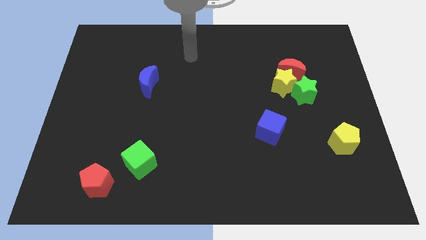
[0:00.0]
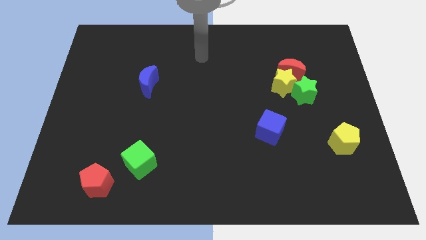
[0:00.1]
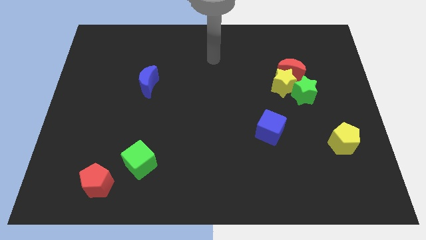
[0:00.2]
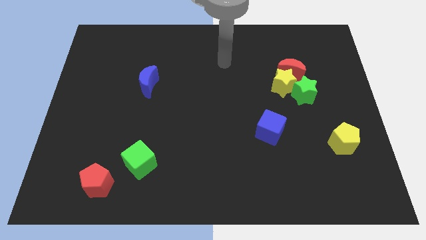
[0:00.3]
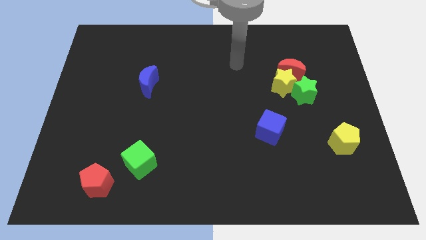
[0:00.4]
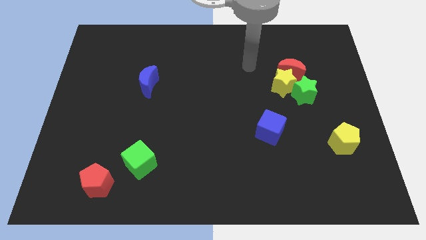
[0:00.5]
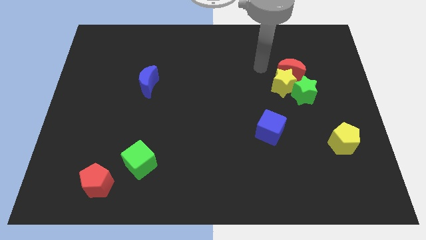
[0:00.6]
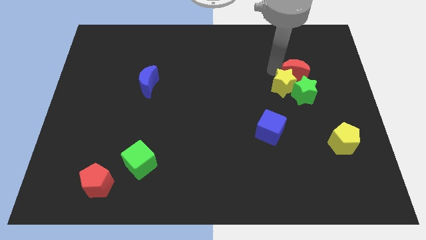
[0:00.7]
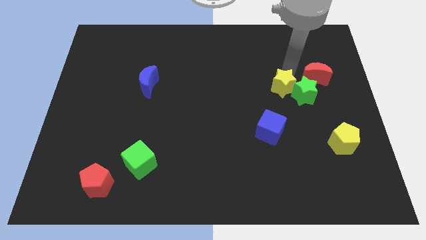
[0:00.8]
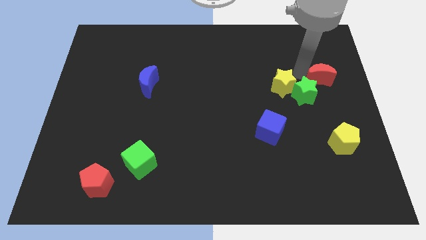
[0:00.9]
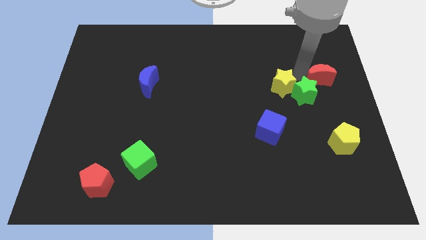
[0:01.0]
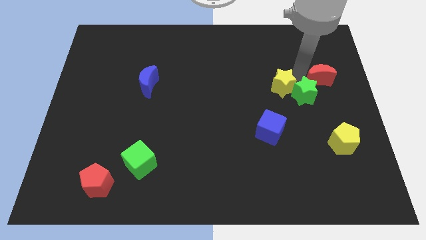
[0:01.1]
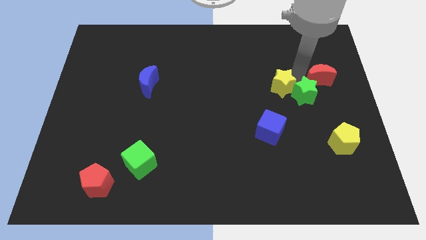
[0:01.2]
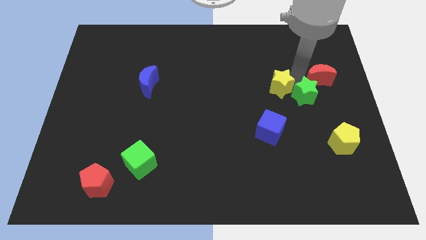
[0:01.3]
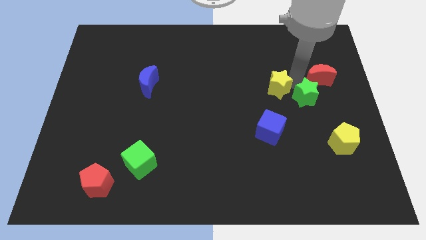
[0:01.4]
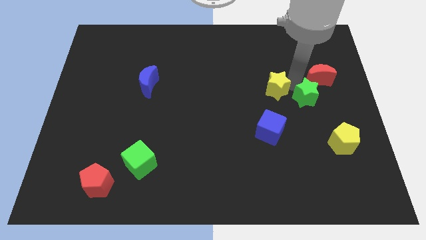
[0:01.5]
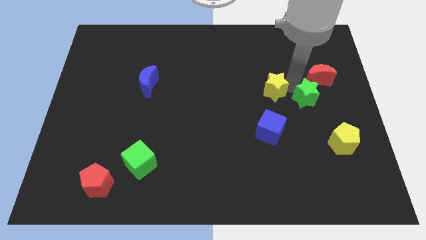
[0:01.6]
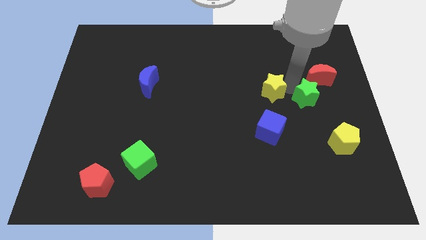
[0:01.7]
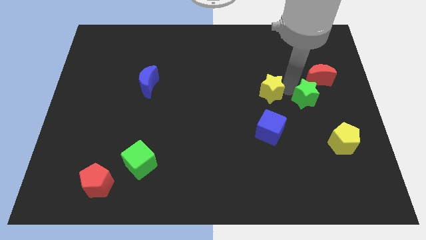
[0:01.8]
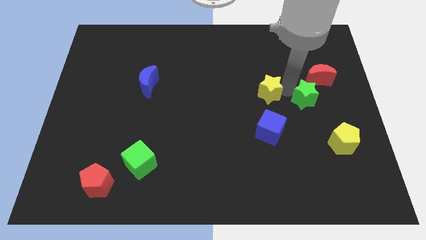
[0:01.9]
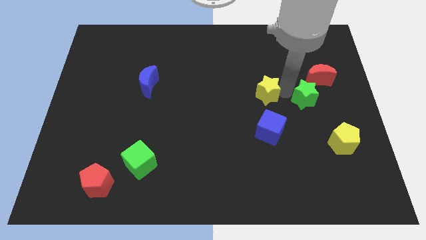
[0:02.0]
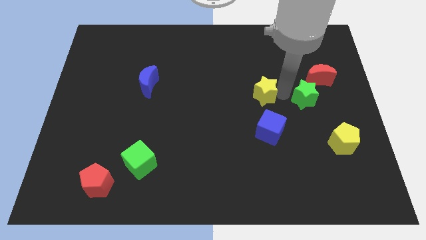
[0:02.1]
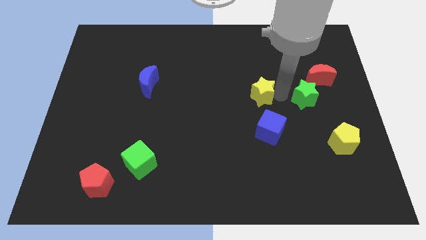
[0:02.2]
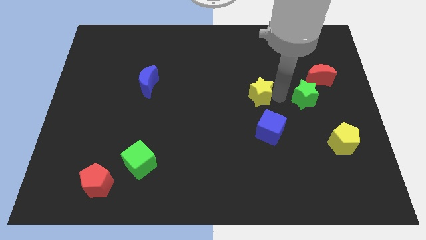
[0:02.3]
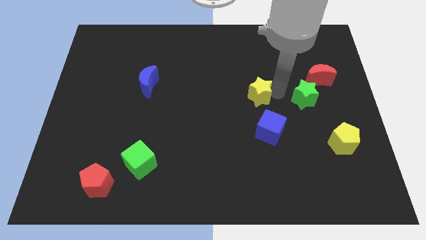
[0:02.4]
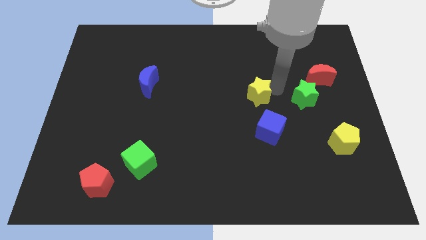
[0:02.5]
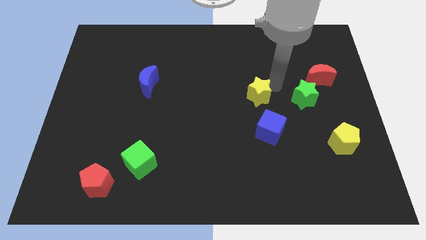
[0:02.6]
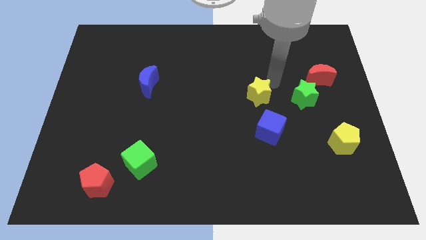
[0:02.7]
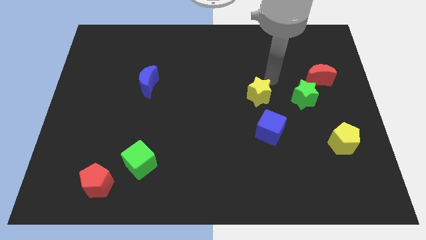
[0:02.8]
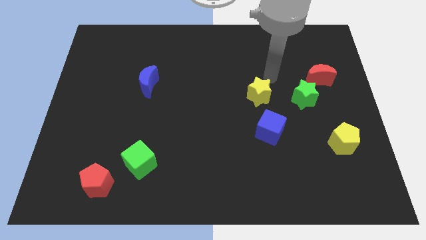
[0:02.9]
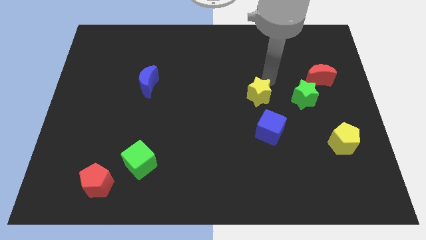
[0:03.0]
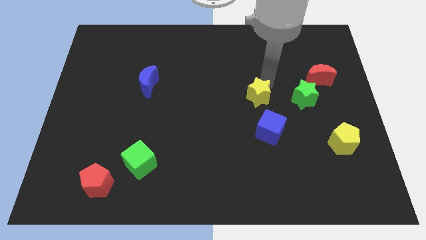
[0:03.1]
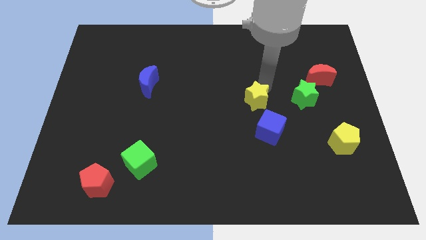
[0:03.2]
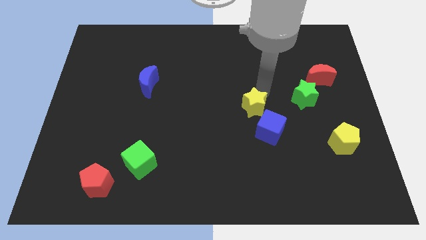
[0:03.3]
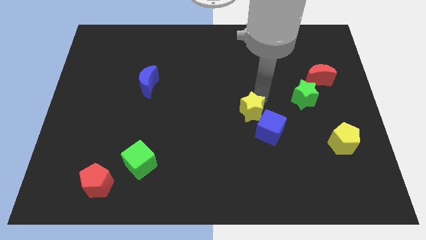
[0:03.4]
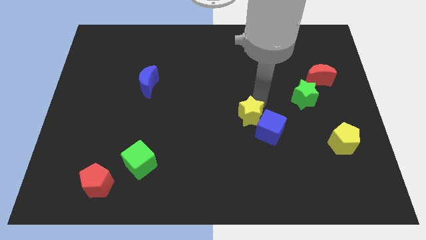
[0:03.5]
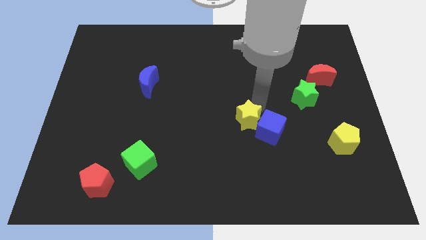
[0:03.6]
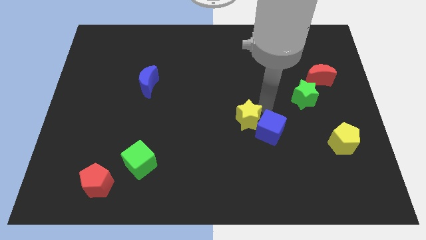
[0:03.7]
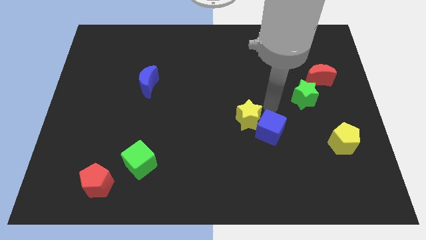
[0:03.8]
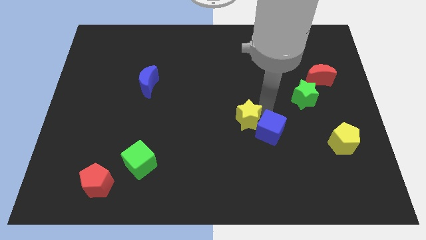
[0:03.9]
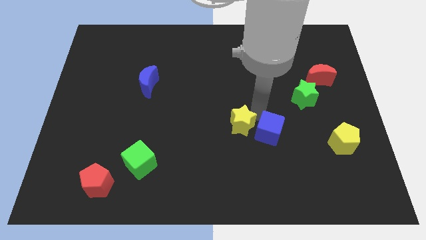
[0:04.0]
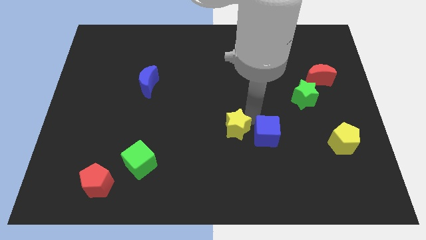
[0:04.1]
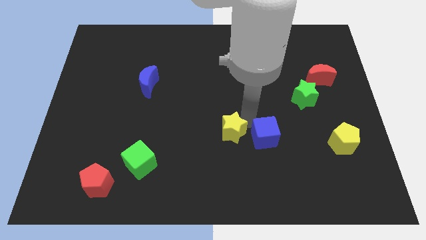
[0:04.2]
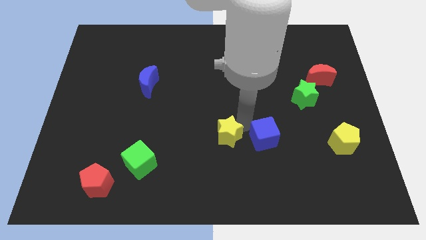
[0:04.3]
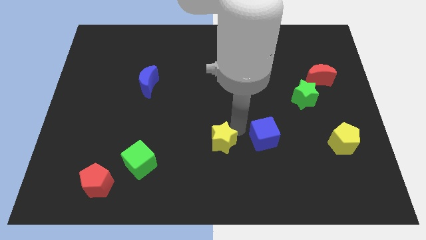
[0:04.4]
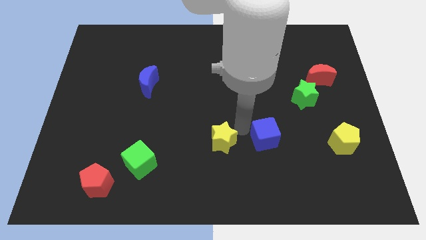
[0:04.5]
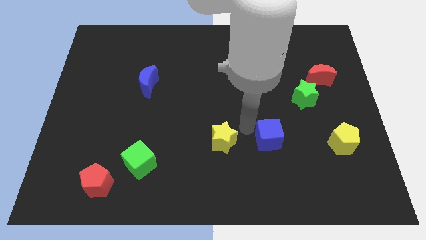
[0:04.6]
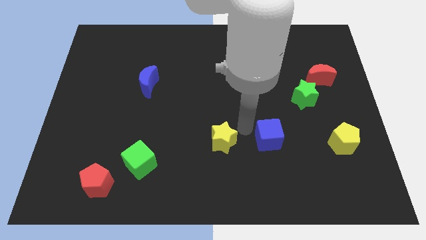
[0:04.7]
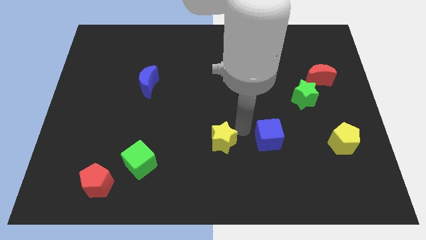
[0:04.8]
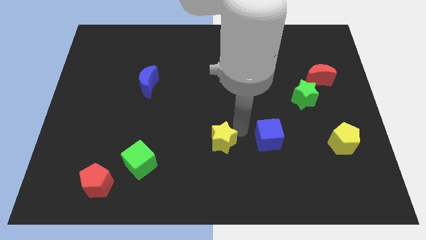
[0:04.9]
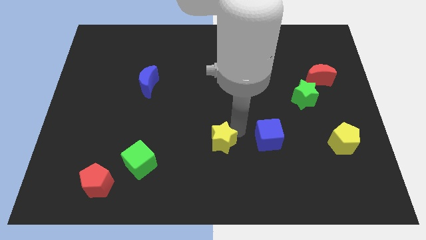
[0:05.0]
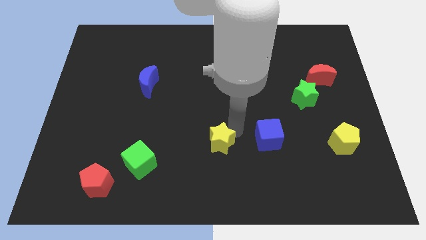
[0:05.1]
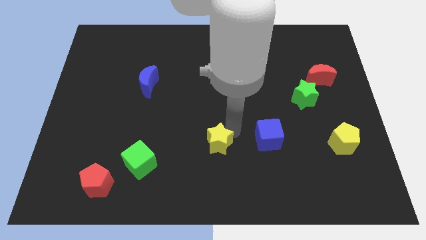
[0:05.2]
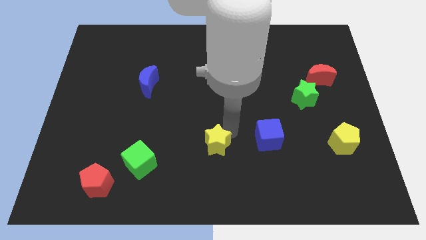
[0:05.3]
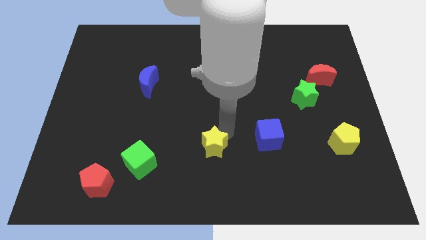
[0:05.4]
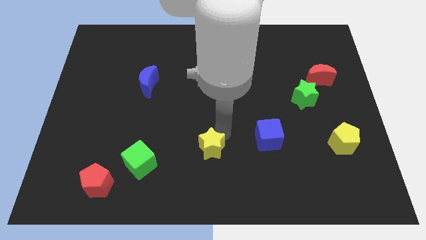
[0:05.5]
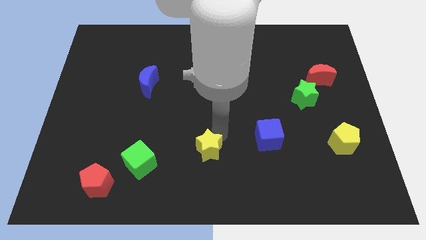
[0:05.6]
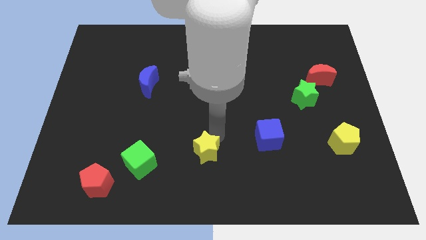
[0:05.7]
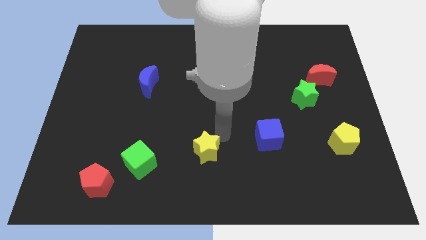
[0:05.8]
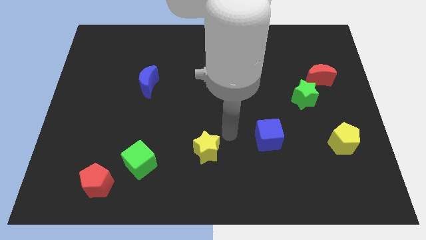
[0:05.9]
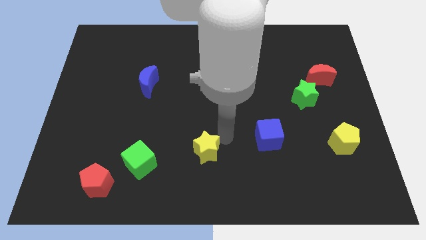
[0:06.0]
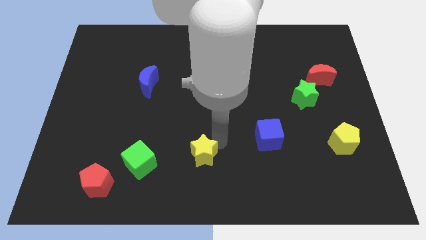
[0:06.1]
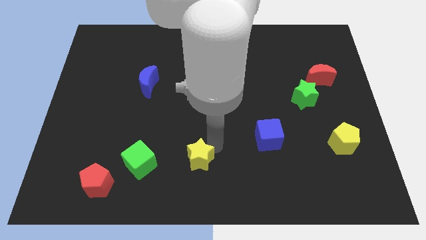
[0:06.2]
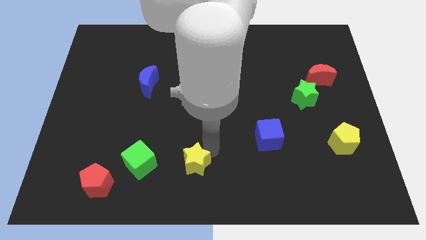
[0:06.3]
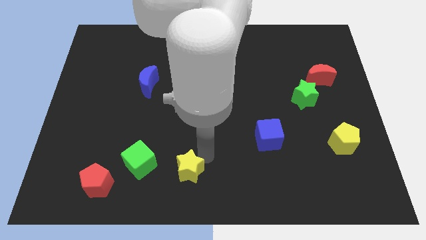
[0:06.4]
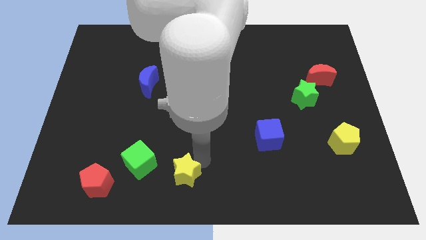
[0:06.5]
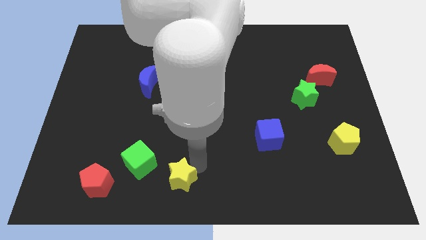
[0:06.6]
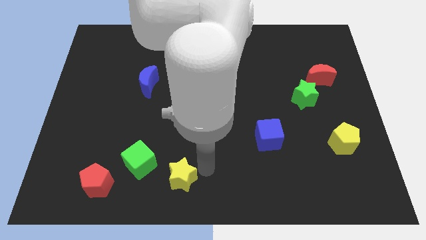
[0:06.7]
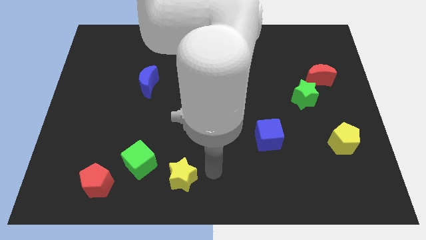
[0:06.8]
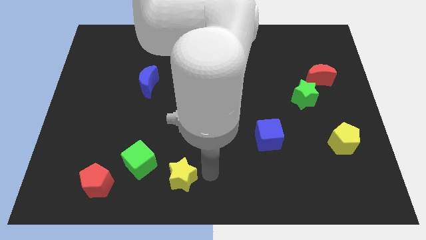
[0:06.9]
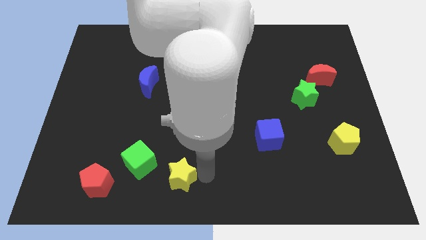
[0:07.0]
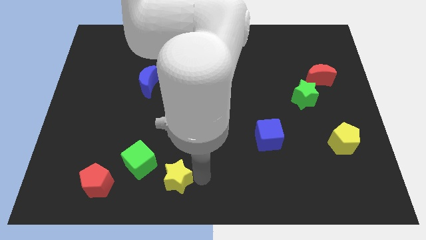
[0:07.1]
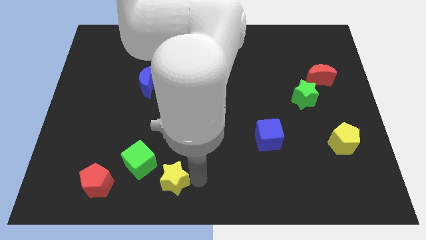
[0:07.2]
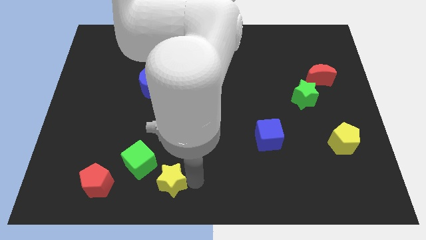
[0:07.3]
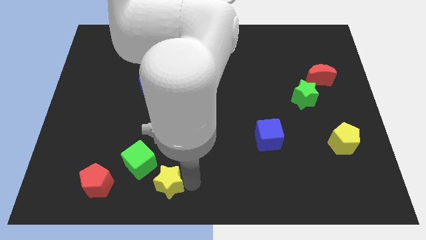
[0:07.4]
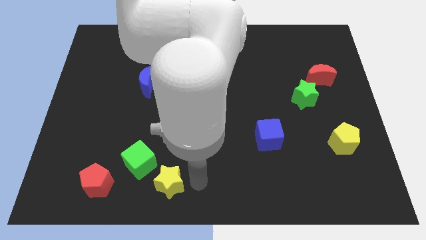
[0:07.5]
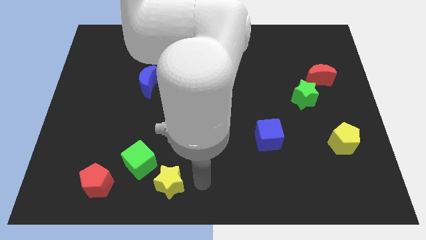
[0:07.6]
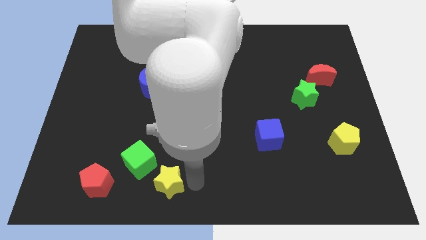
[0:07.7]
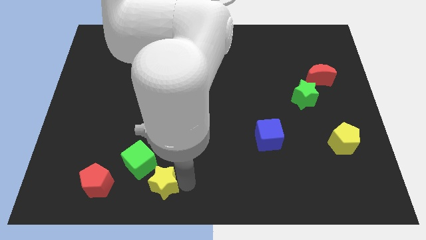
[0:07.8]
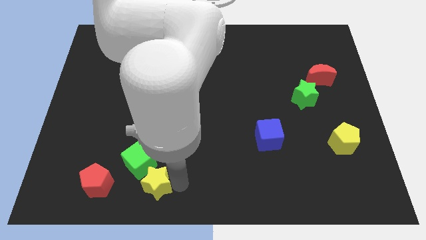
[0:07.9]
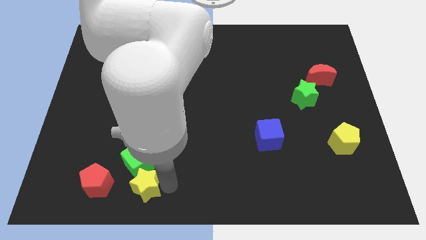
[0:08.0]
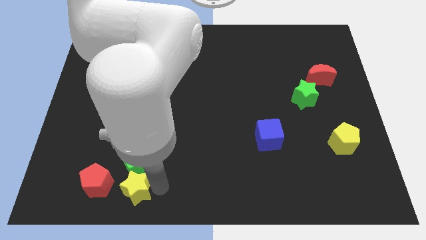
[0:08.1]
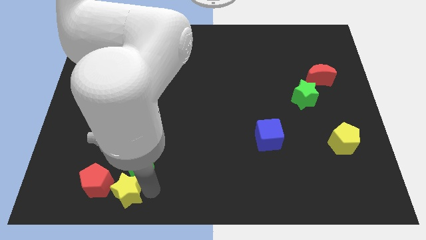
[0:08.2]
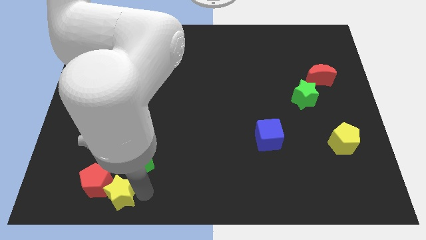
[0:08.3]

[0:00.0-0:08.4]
put the yellow star towards the red pentagon
